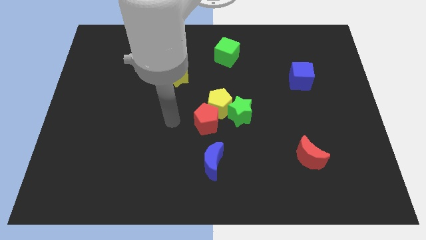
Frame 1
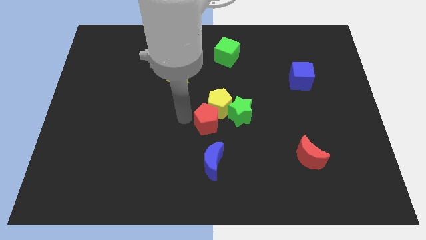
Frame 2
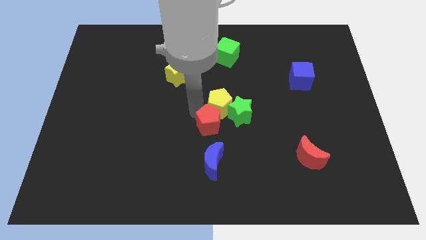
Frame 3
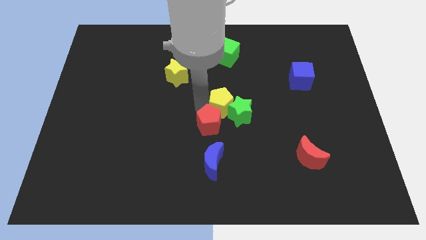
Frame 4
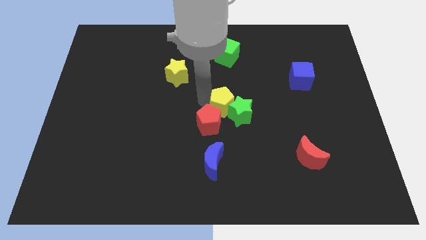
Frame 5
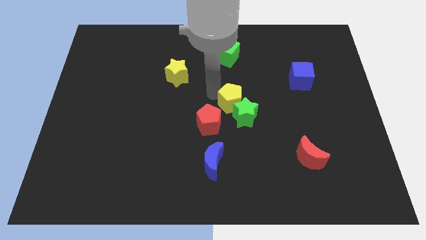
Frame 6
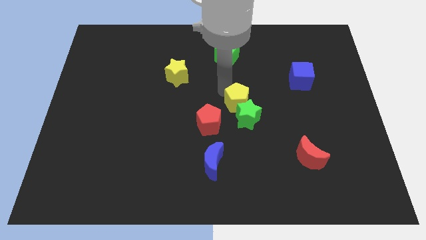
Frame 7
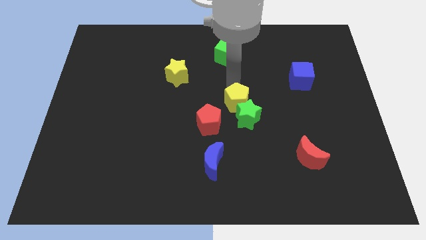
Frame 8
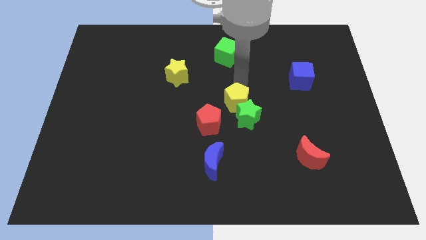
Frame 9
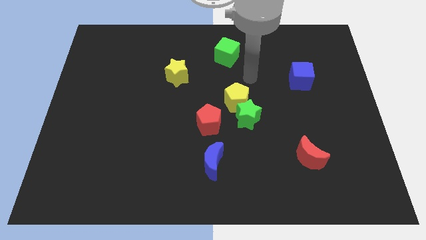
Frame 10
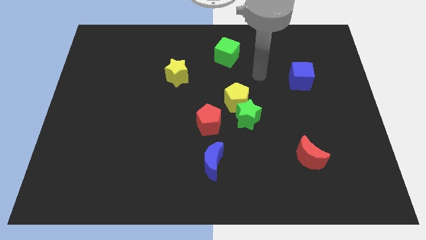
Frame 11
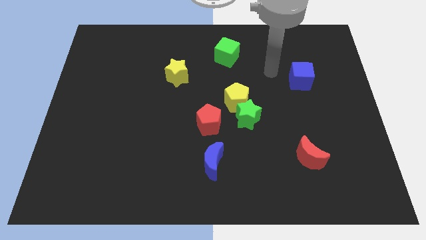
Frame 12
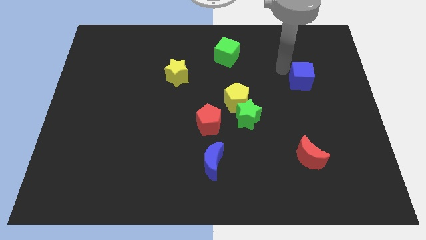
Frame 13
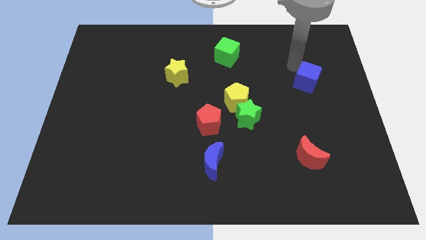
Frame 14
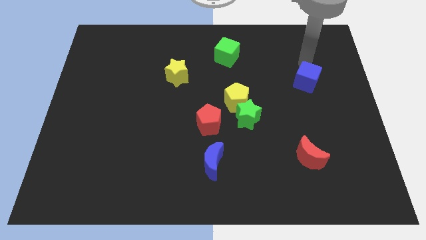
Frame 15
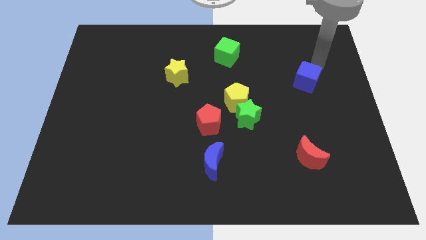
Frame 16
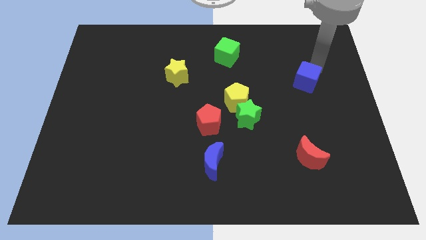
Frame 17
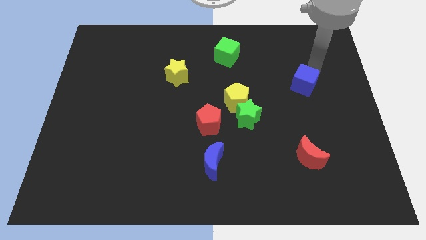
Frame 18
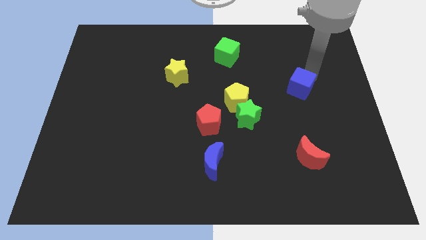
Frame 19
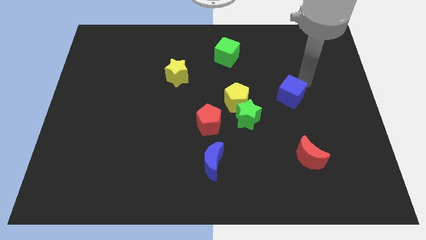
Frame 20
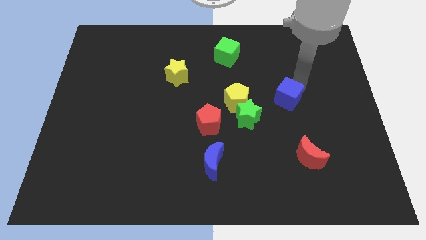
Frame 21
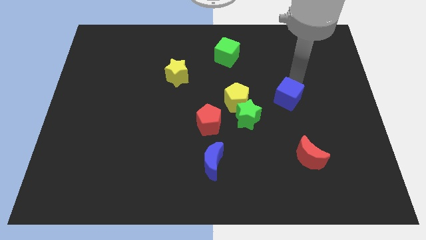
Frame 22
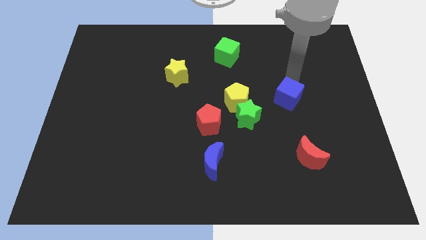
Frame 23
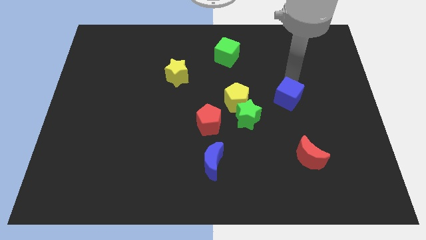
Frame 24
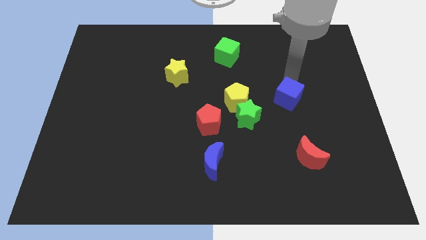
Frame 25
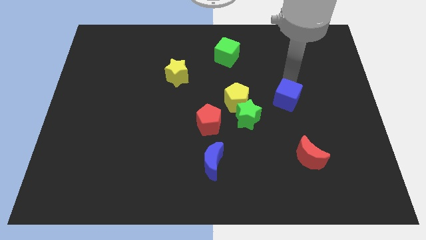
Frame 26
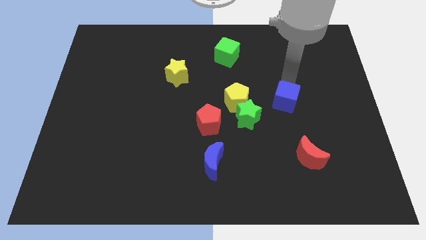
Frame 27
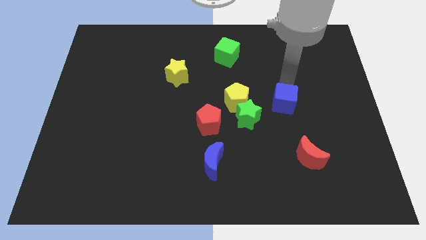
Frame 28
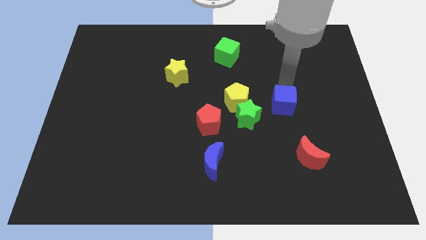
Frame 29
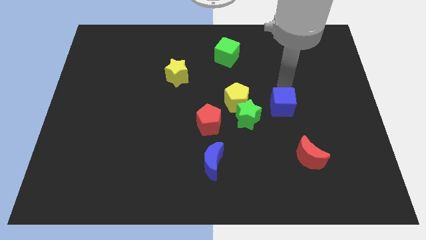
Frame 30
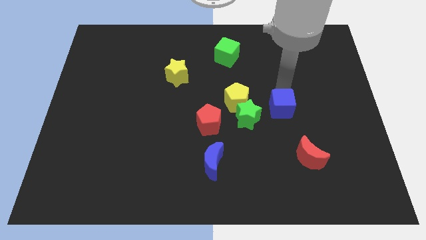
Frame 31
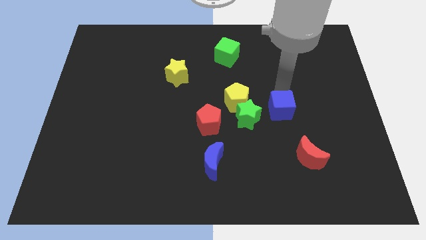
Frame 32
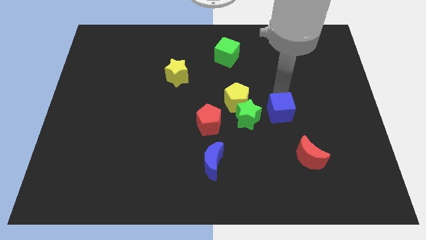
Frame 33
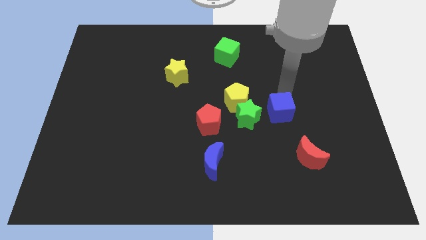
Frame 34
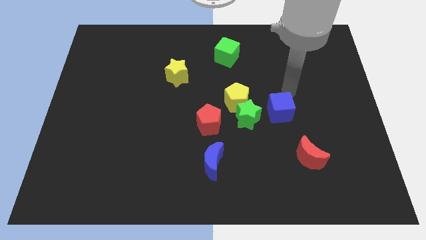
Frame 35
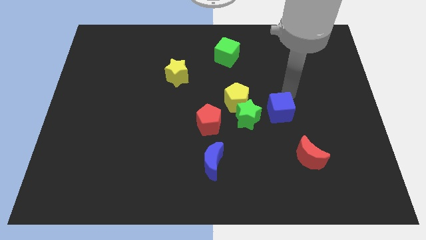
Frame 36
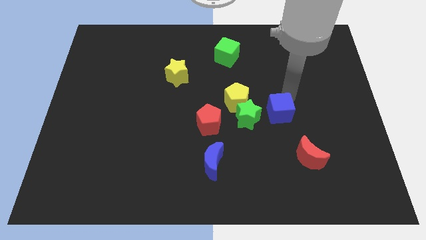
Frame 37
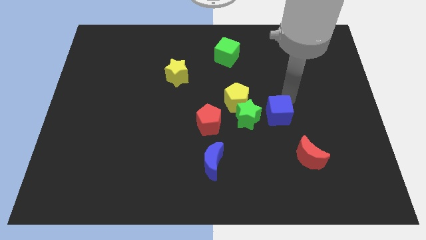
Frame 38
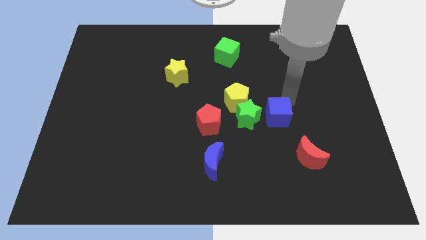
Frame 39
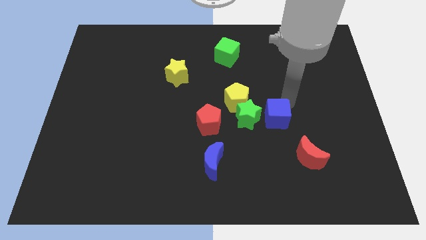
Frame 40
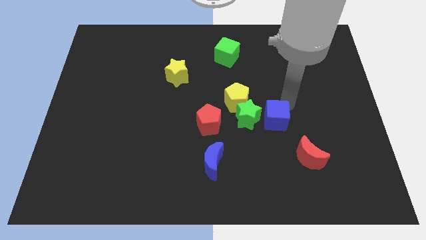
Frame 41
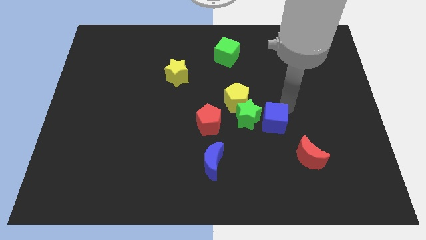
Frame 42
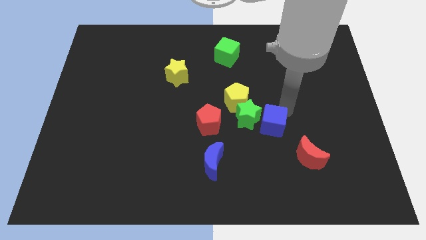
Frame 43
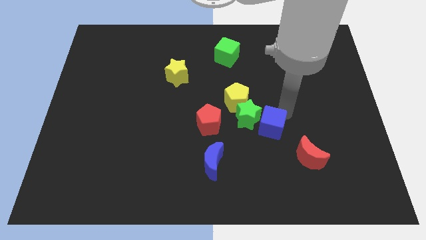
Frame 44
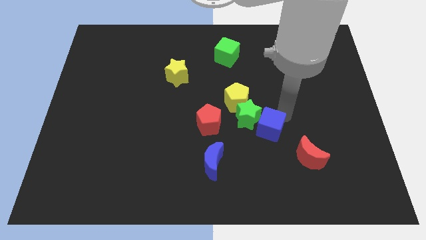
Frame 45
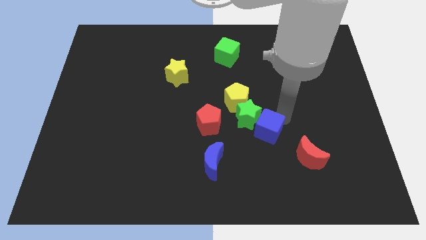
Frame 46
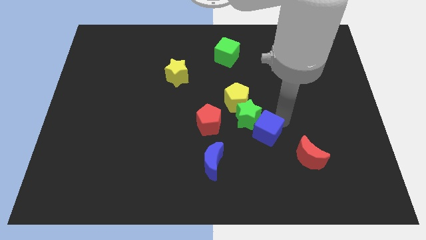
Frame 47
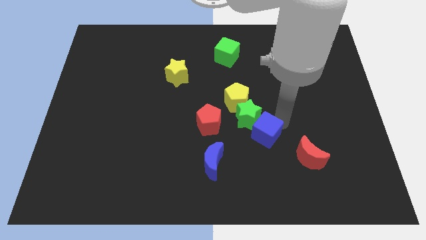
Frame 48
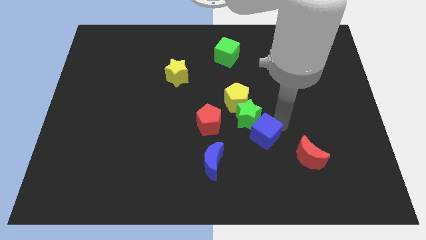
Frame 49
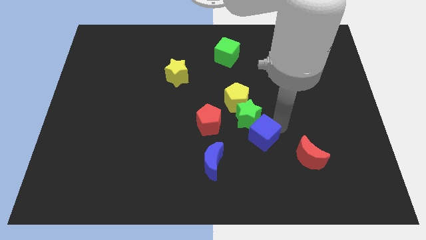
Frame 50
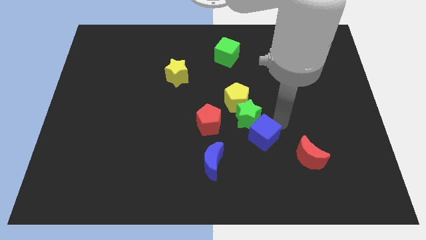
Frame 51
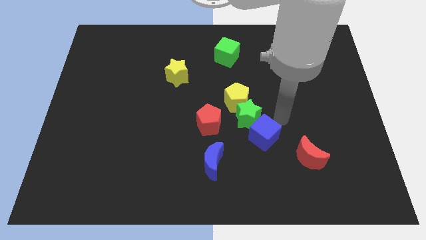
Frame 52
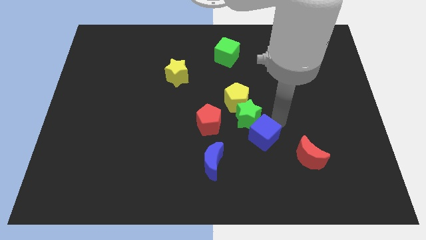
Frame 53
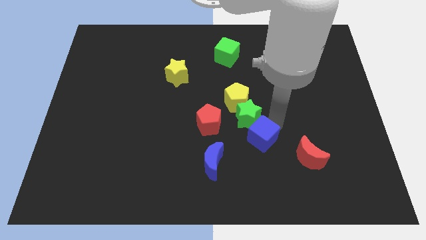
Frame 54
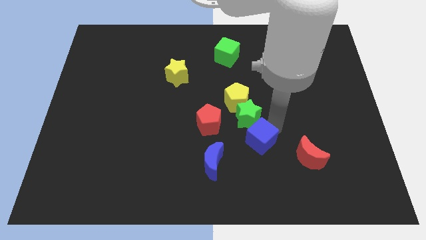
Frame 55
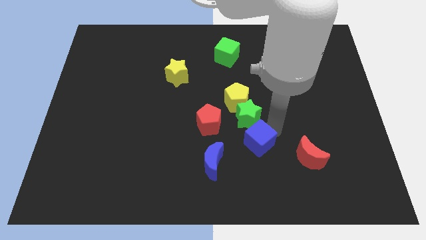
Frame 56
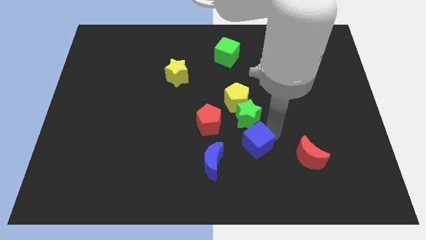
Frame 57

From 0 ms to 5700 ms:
move the blue cube to the bottom right side of the red pentagon

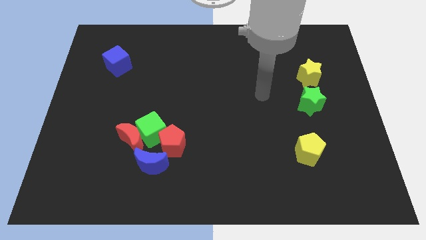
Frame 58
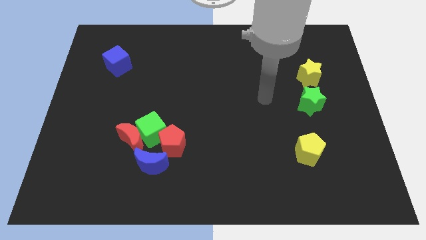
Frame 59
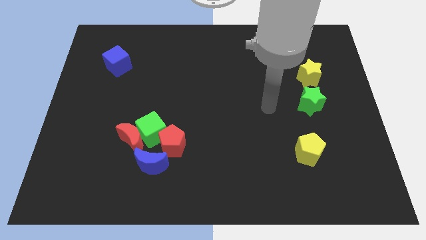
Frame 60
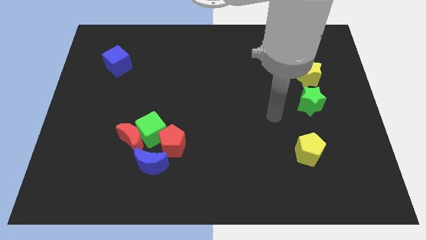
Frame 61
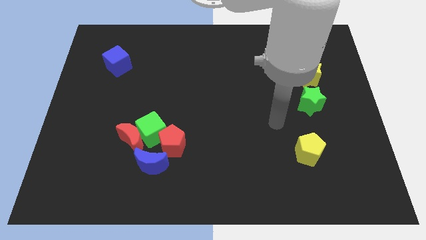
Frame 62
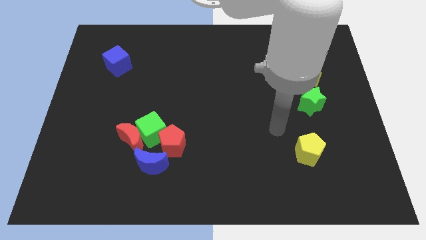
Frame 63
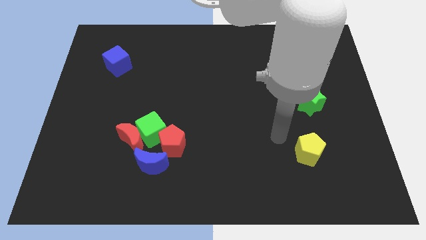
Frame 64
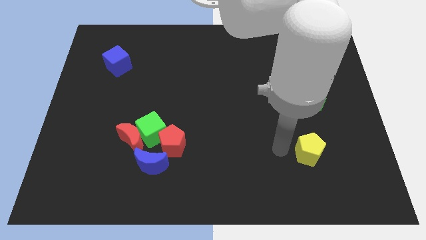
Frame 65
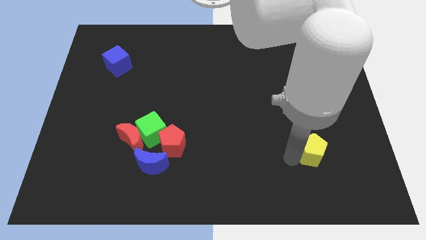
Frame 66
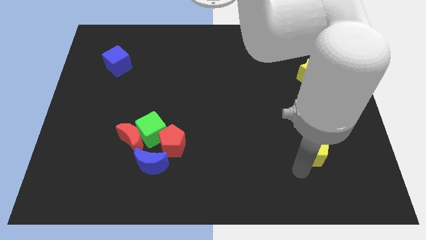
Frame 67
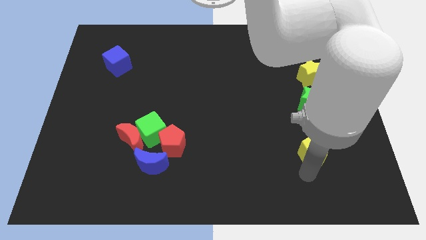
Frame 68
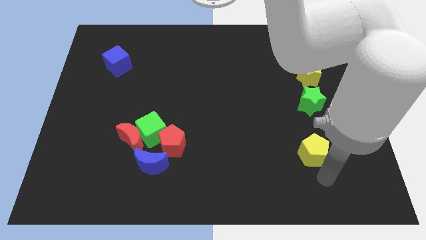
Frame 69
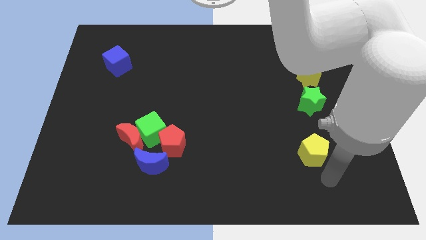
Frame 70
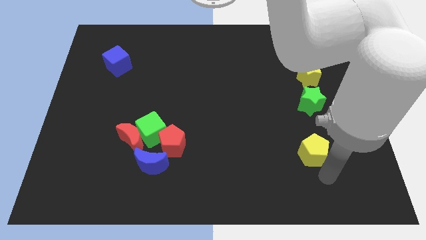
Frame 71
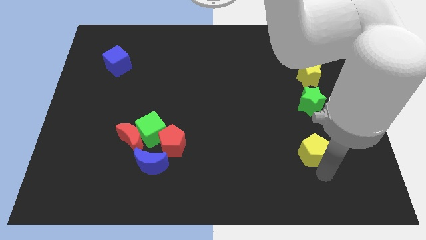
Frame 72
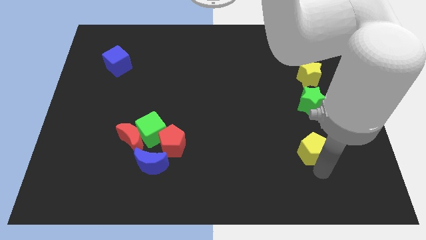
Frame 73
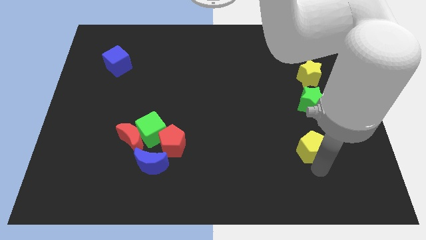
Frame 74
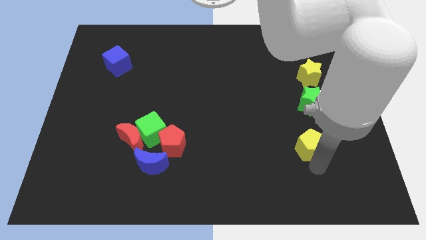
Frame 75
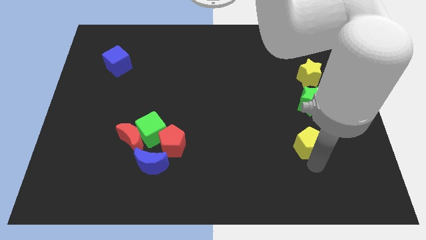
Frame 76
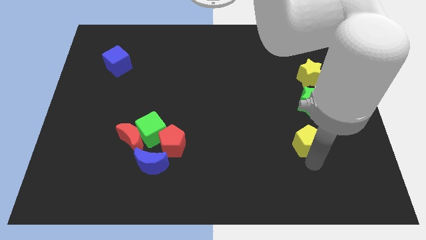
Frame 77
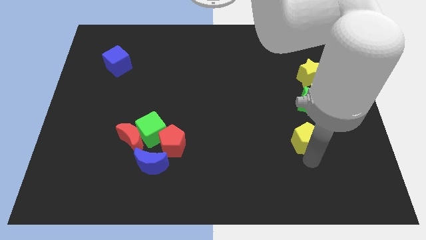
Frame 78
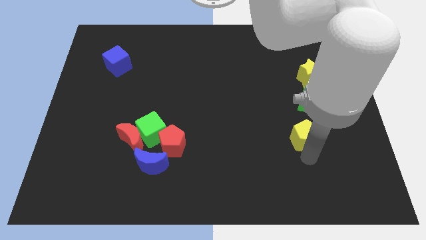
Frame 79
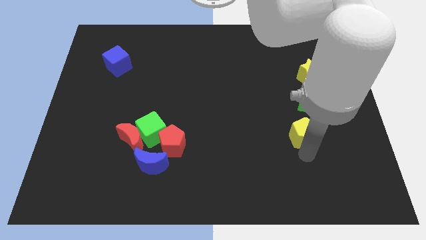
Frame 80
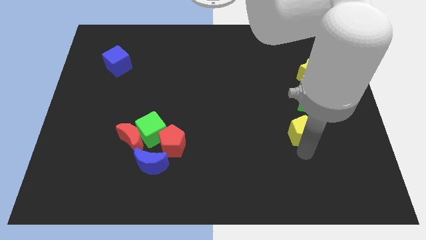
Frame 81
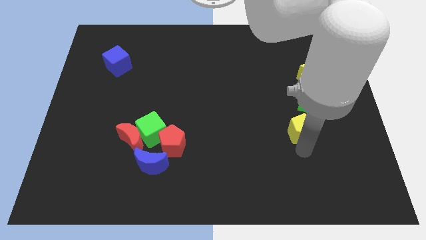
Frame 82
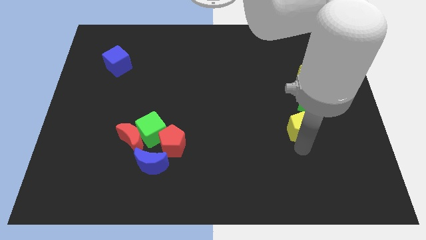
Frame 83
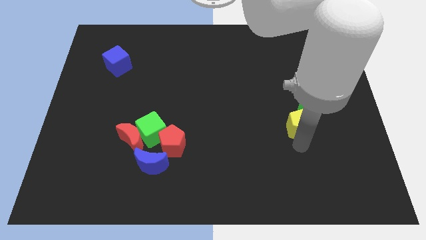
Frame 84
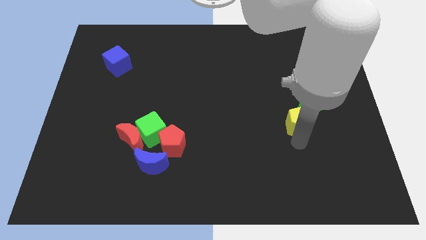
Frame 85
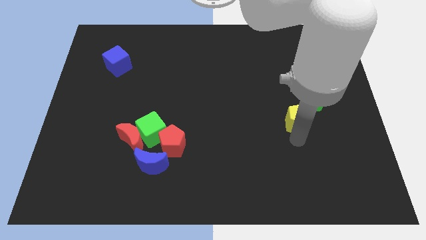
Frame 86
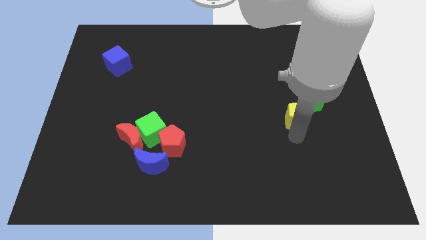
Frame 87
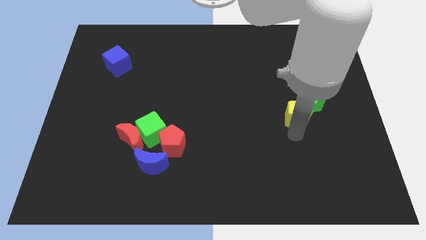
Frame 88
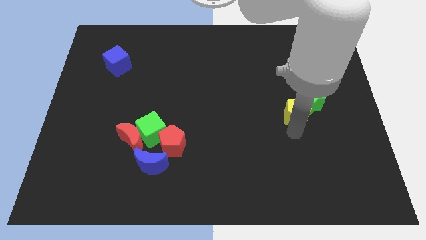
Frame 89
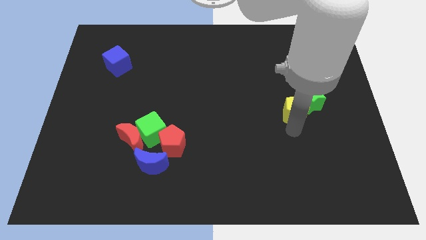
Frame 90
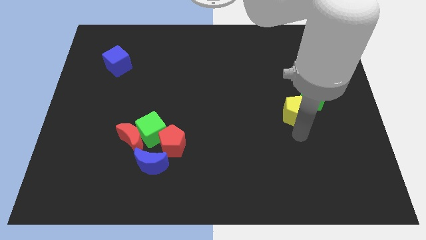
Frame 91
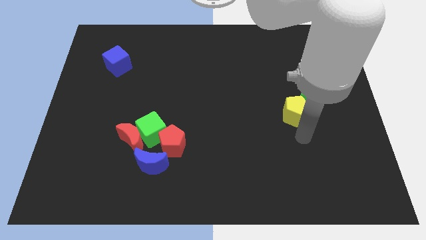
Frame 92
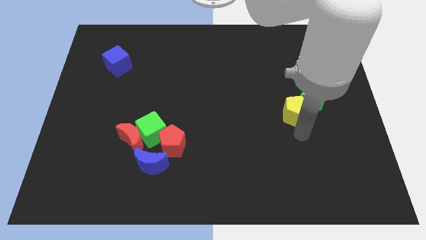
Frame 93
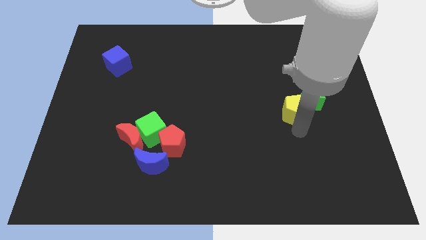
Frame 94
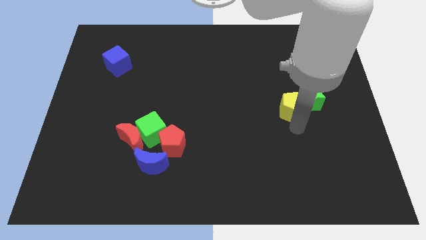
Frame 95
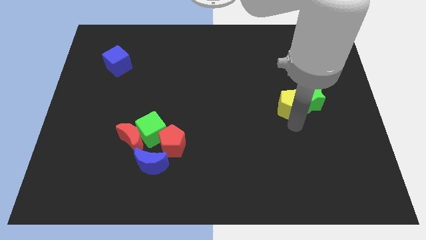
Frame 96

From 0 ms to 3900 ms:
slide the yellow pentagon diagonally up and to the left of the green star
